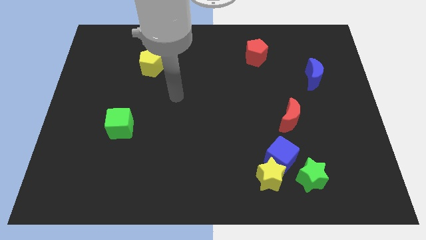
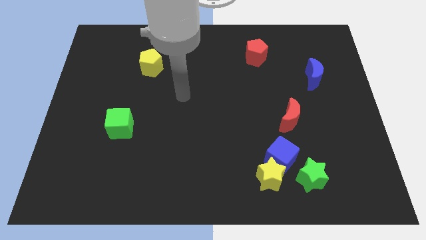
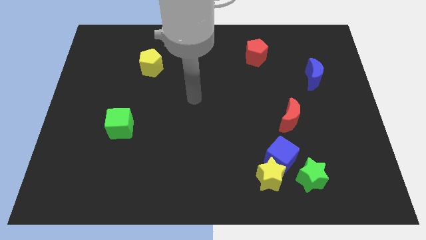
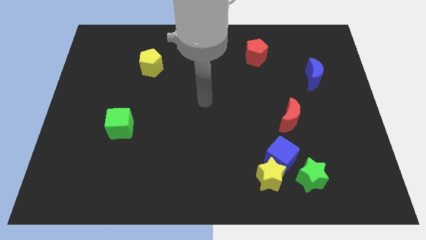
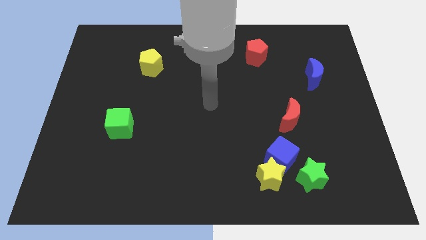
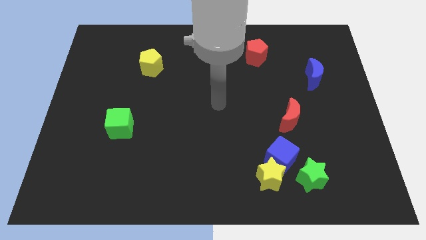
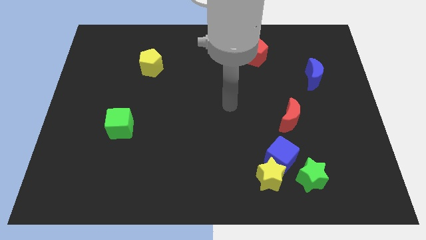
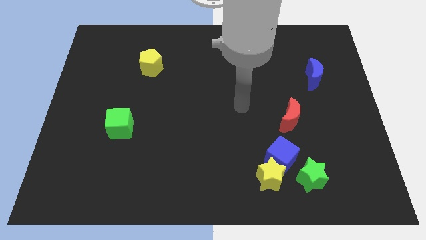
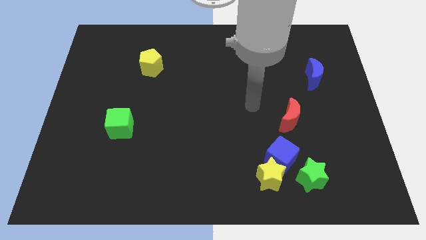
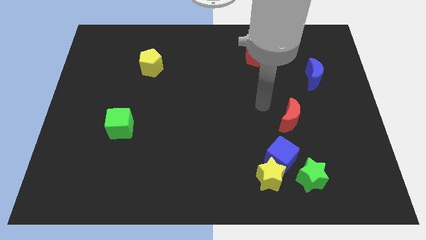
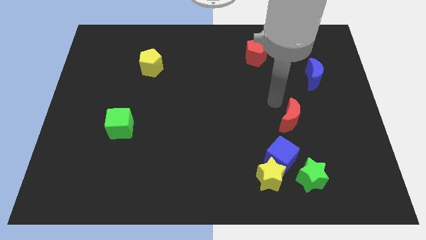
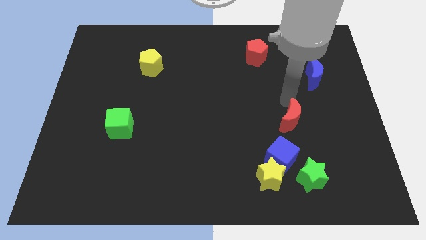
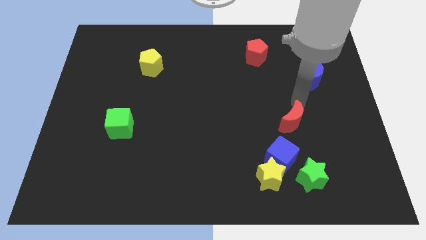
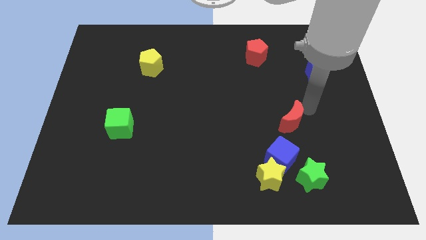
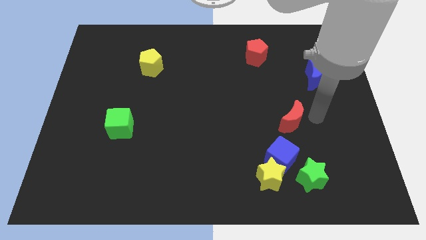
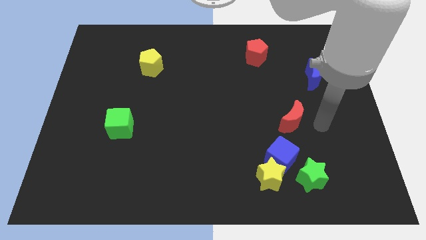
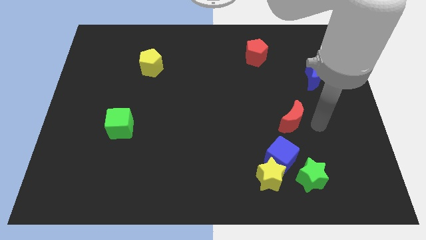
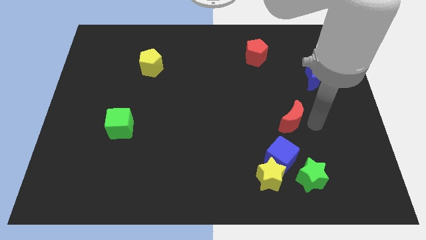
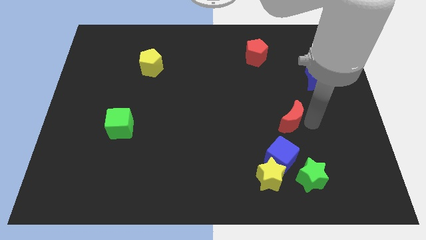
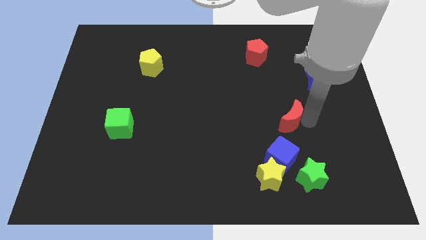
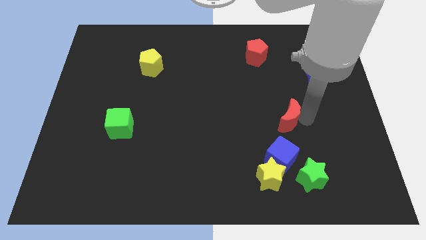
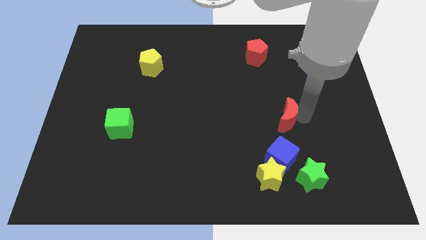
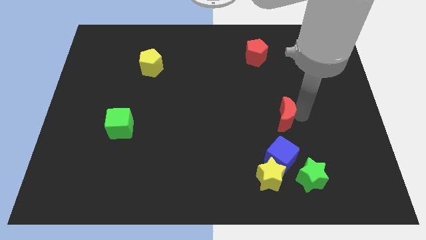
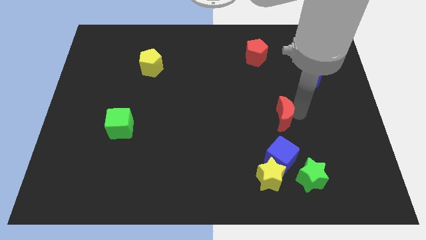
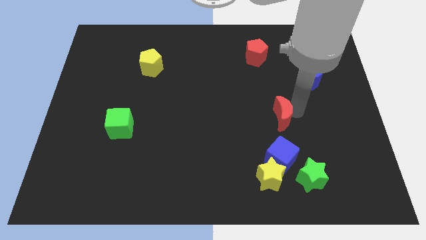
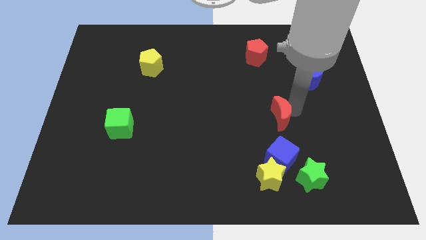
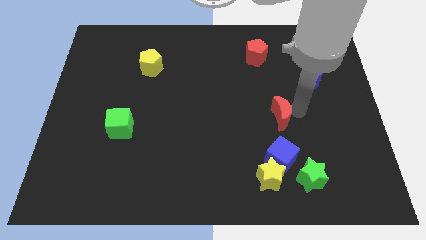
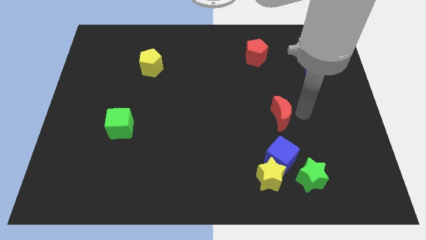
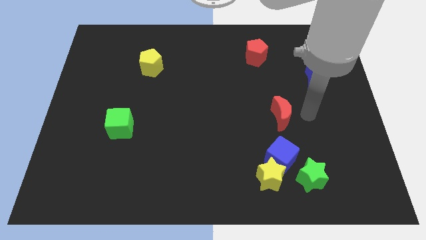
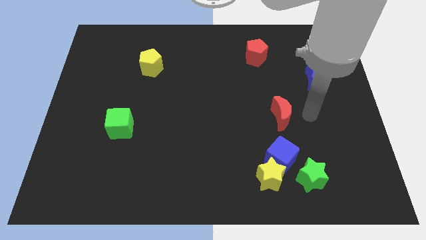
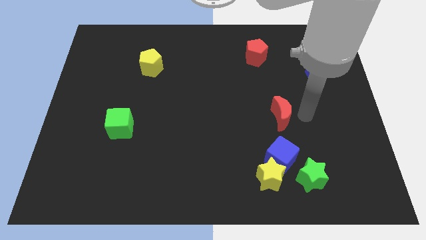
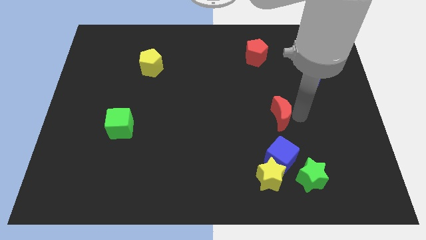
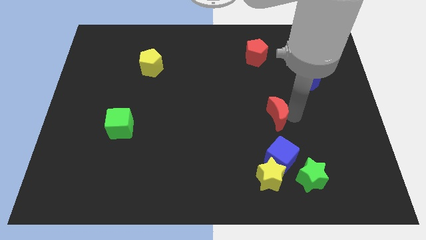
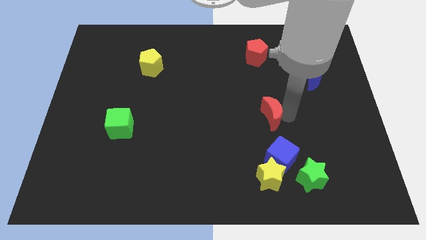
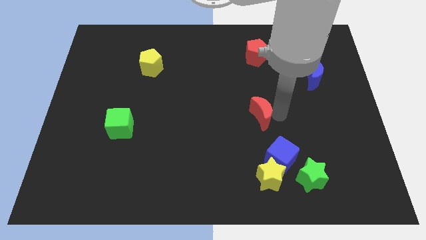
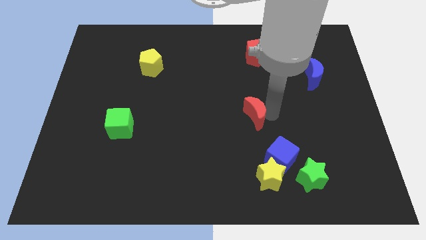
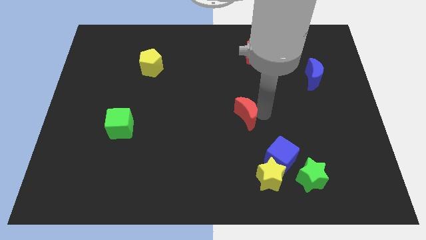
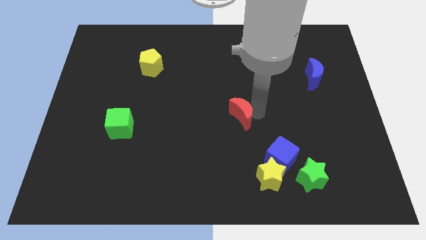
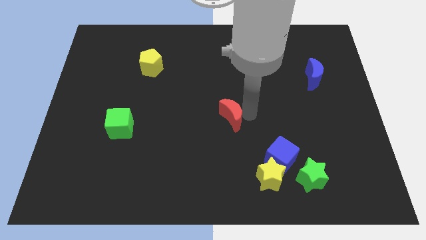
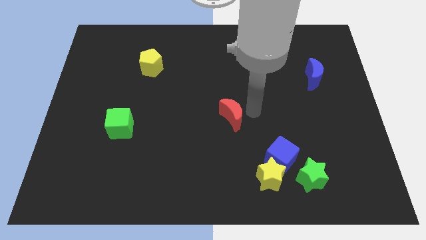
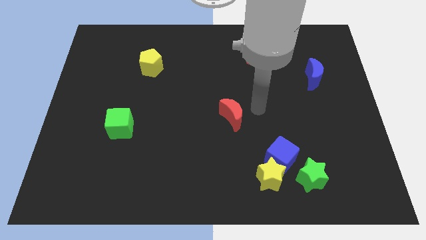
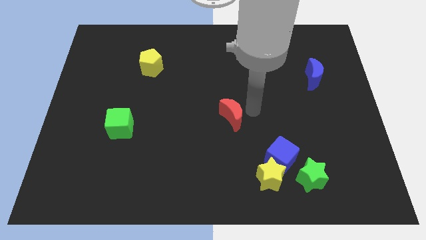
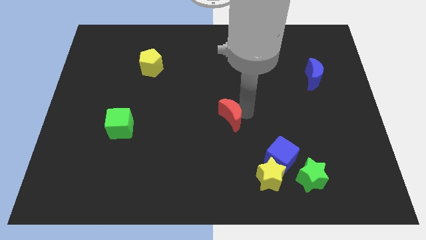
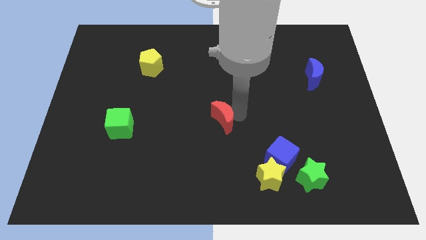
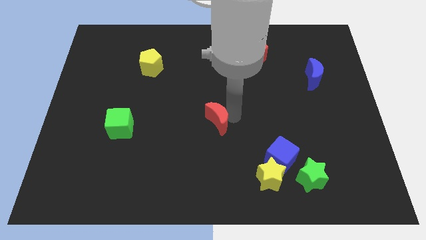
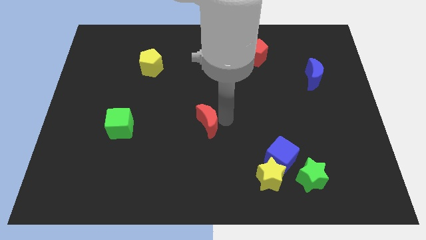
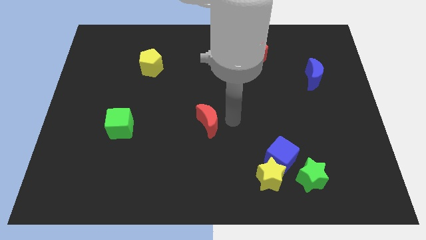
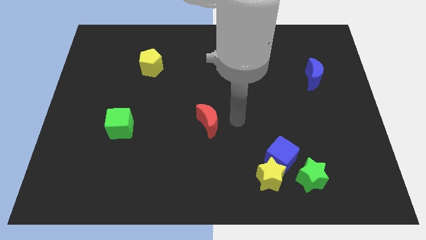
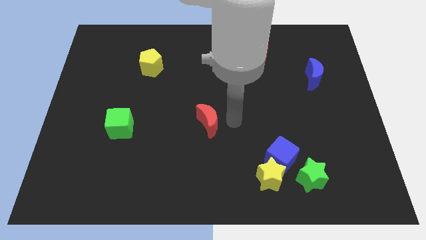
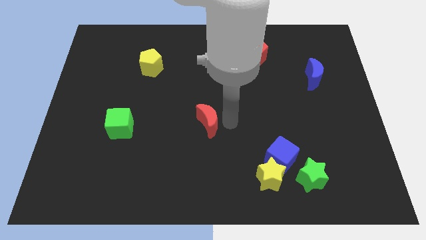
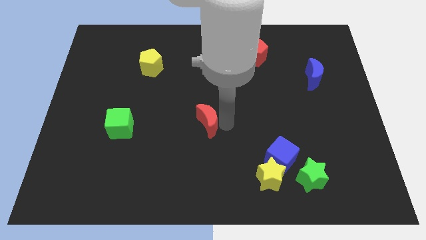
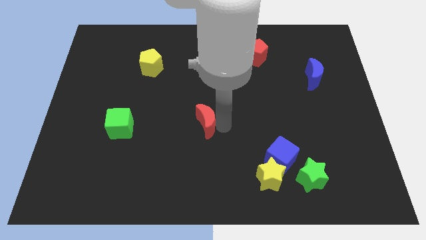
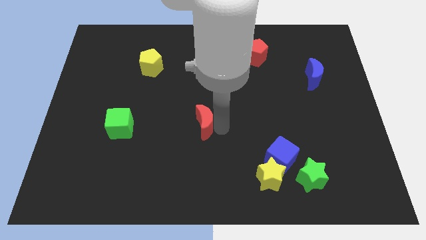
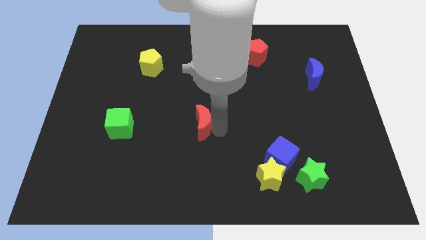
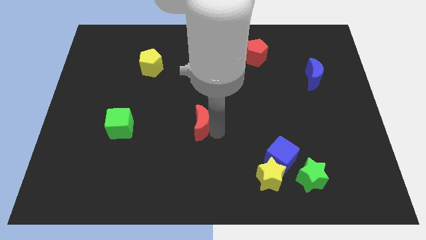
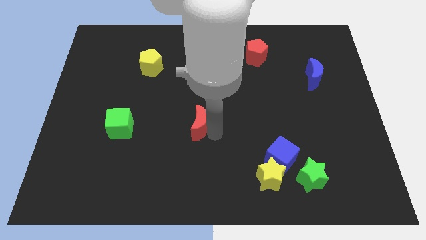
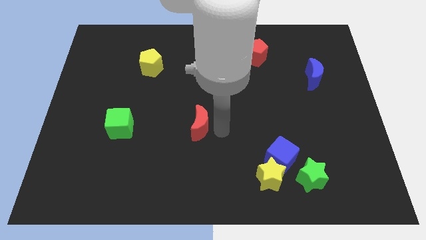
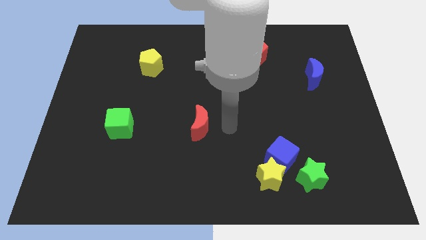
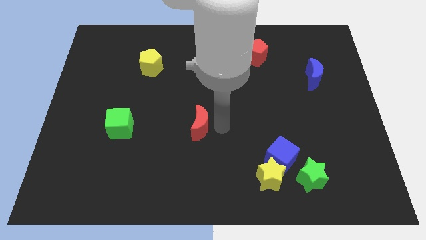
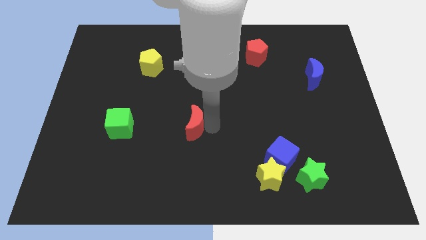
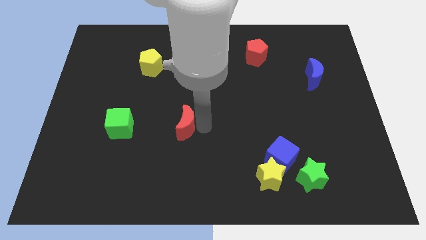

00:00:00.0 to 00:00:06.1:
push the red moon right of the green cube

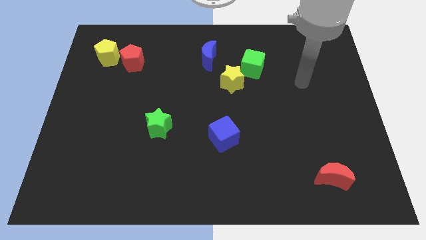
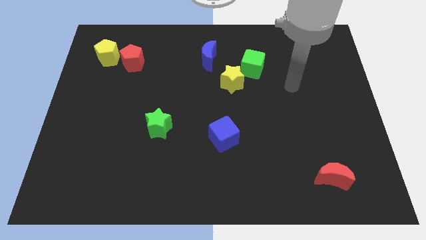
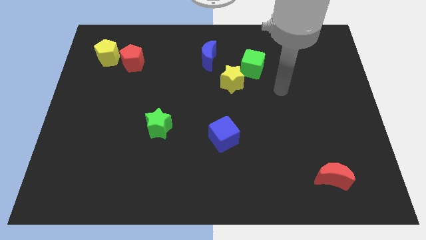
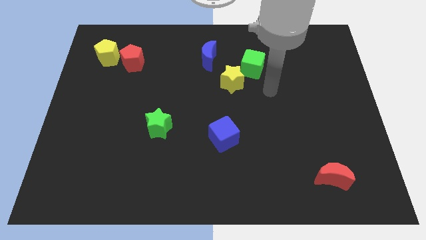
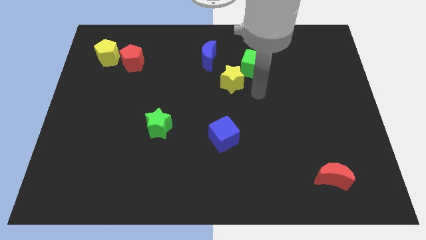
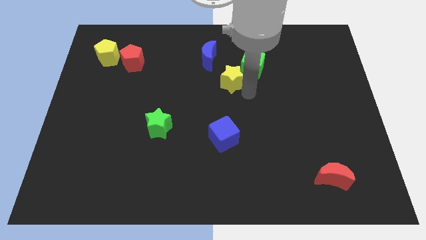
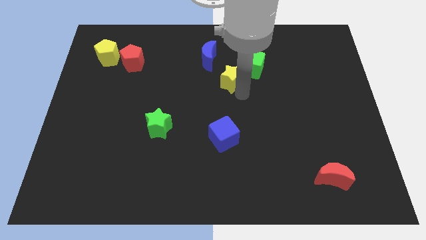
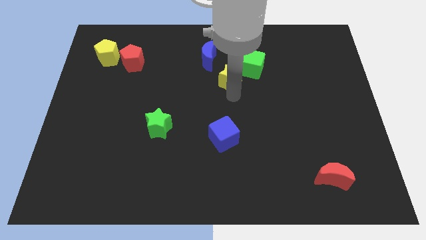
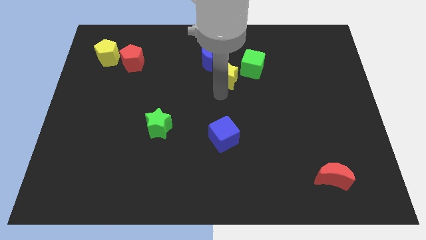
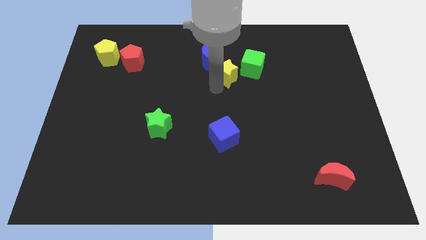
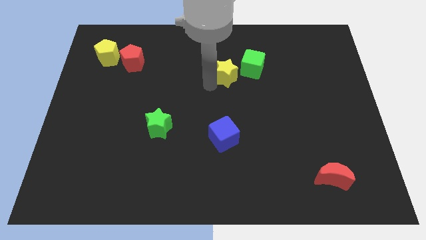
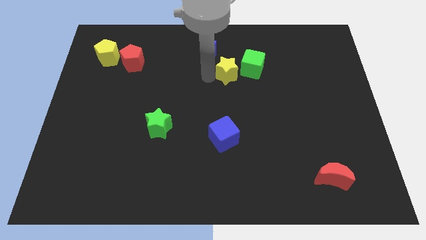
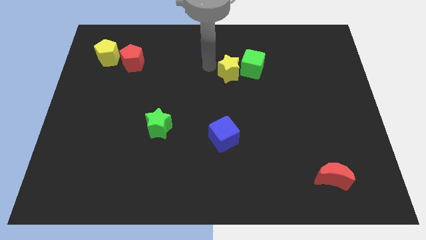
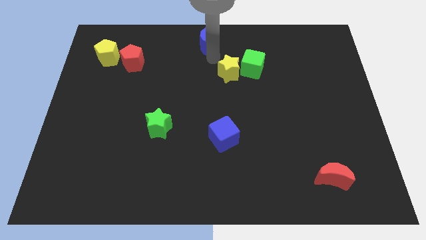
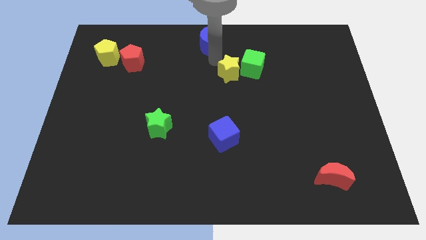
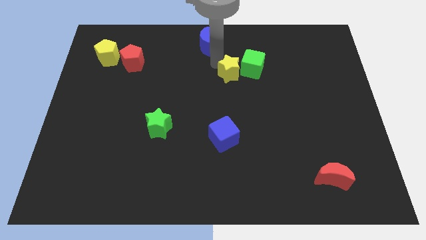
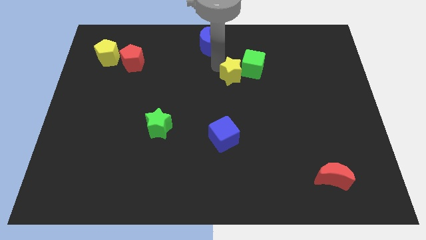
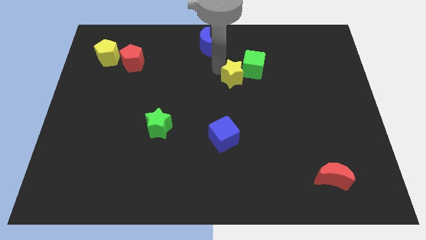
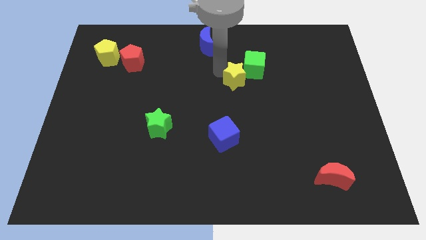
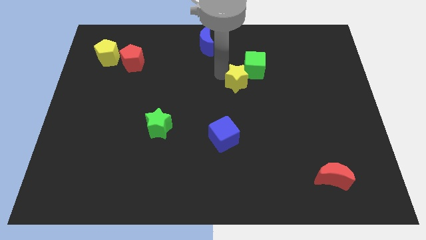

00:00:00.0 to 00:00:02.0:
move the yellow star to the bottom side of the green cube
